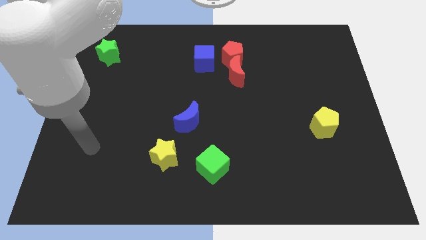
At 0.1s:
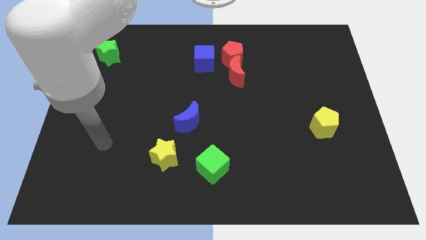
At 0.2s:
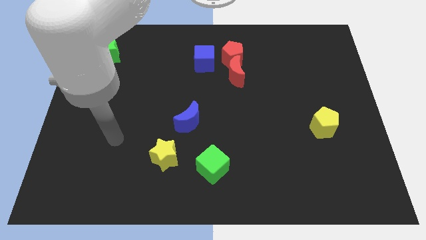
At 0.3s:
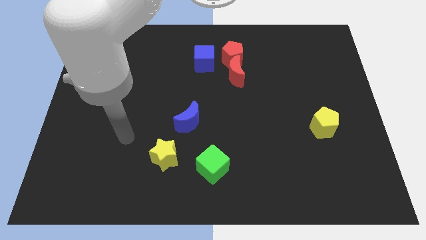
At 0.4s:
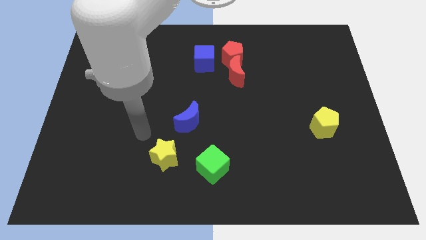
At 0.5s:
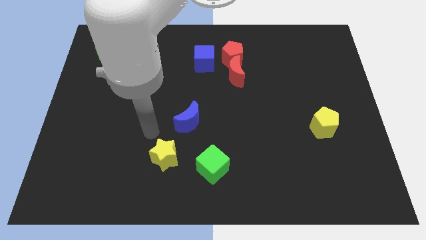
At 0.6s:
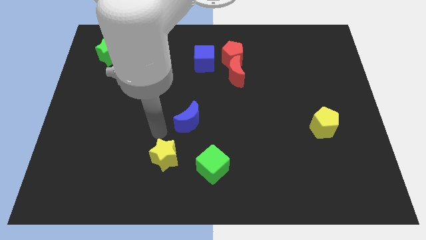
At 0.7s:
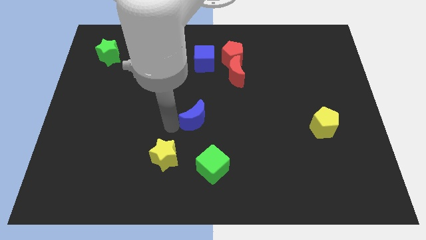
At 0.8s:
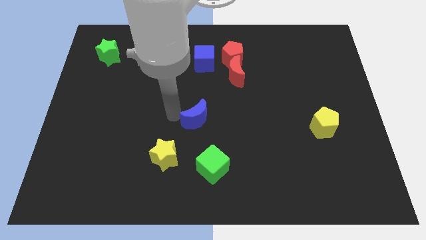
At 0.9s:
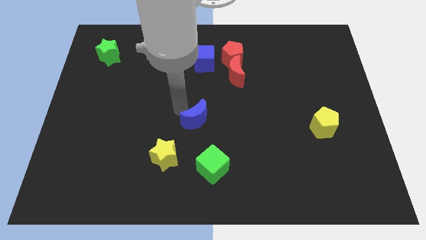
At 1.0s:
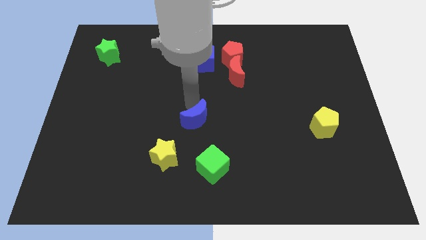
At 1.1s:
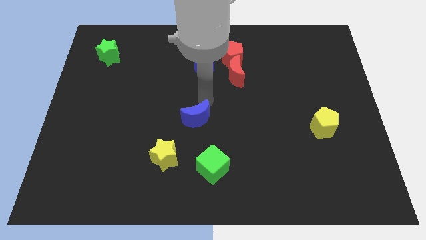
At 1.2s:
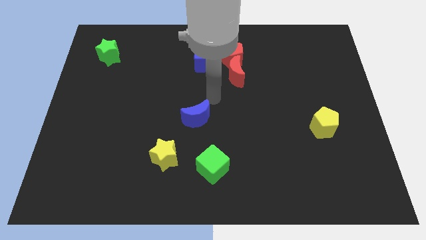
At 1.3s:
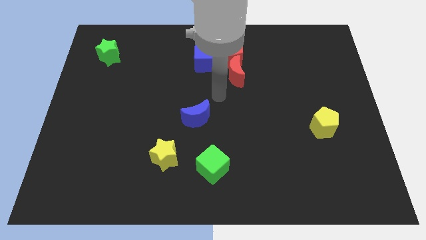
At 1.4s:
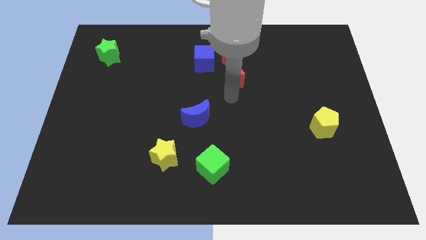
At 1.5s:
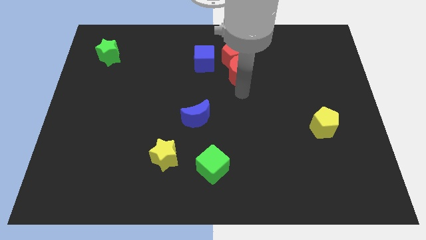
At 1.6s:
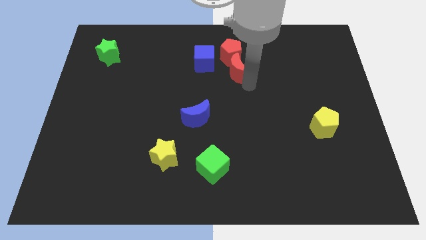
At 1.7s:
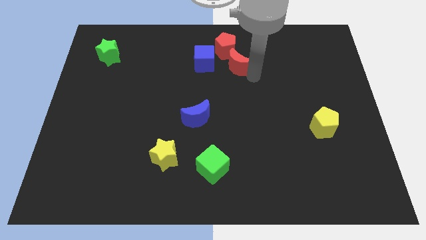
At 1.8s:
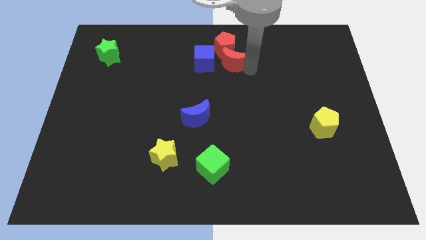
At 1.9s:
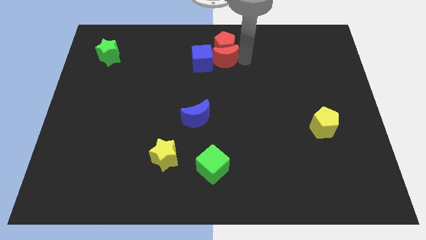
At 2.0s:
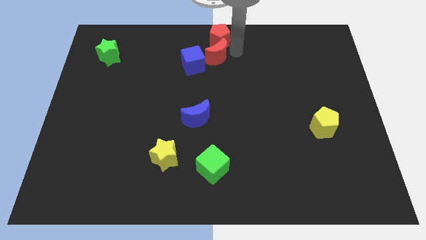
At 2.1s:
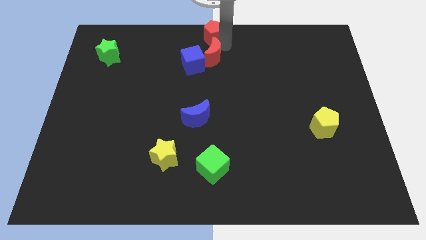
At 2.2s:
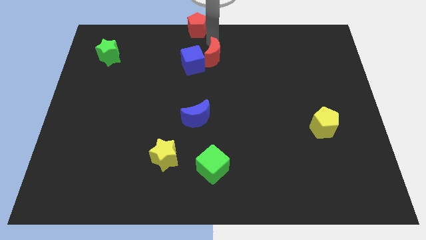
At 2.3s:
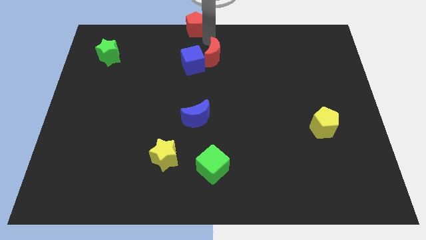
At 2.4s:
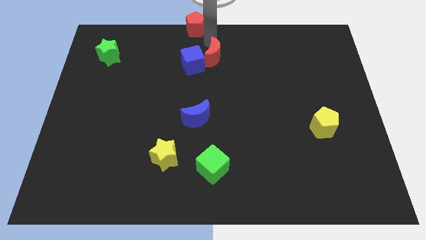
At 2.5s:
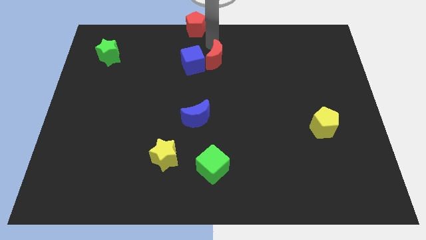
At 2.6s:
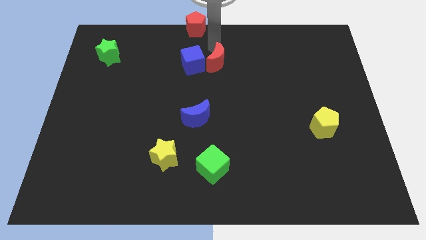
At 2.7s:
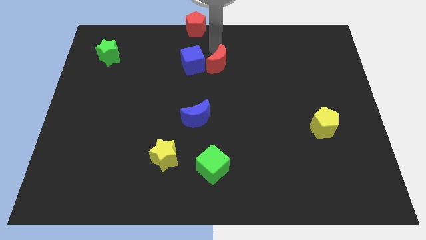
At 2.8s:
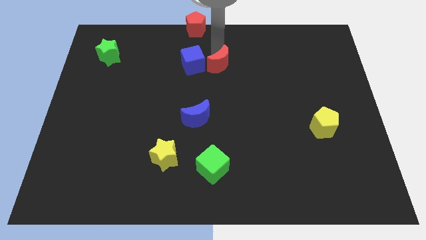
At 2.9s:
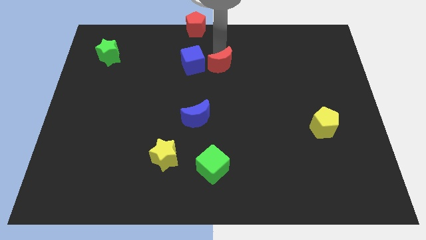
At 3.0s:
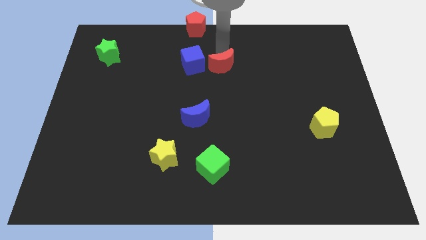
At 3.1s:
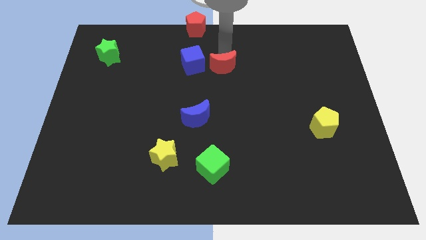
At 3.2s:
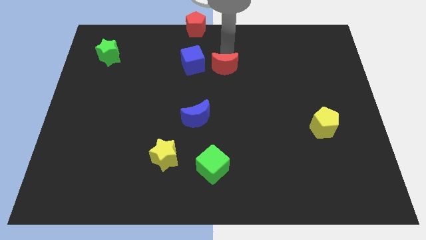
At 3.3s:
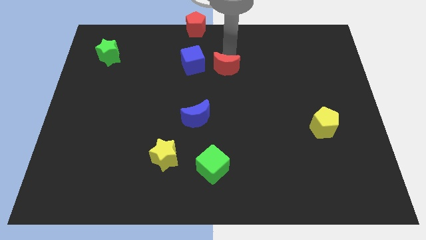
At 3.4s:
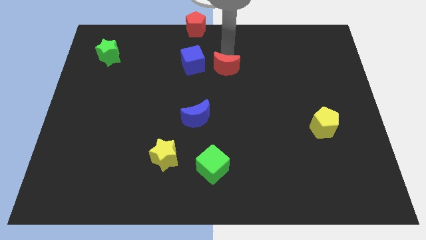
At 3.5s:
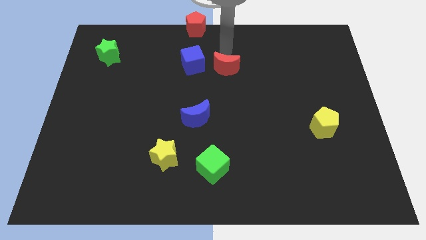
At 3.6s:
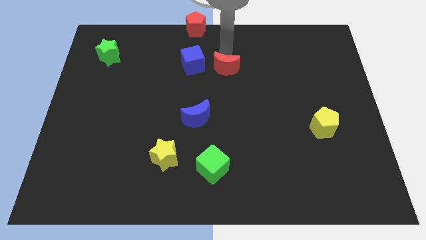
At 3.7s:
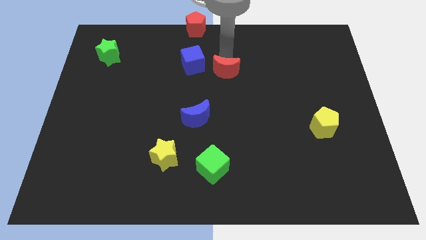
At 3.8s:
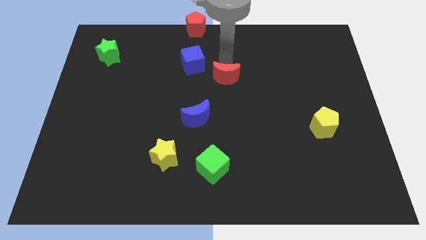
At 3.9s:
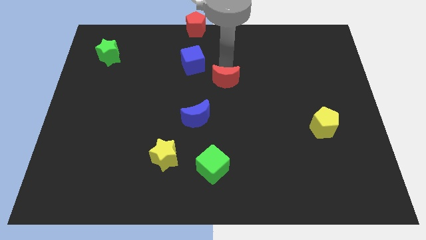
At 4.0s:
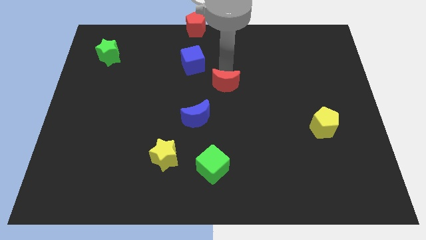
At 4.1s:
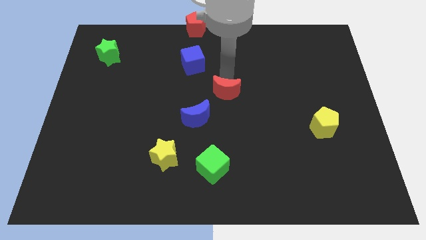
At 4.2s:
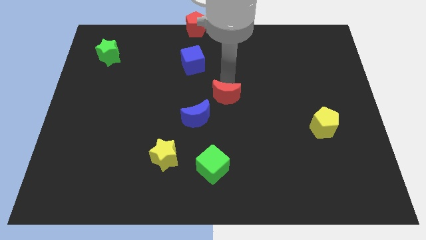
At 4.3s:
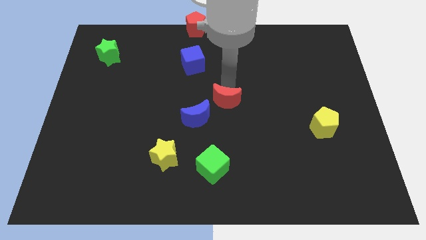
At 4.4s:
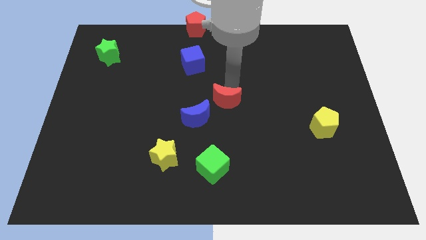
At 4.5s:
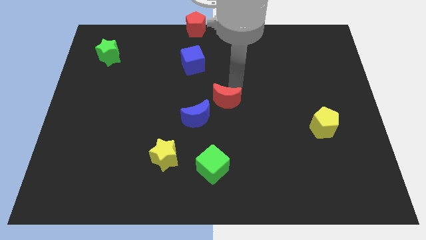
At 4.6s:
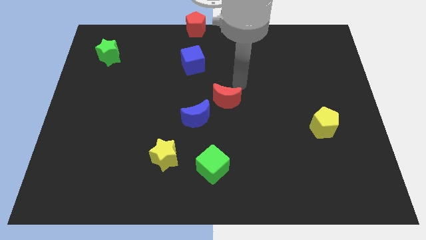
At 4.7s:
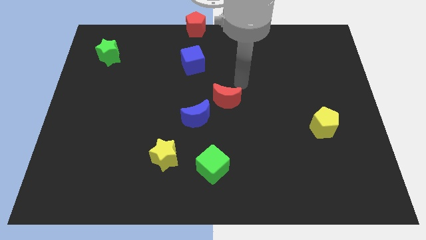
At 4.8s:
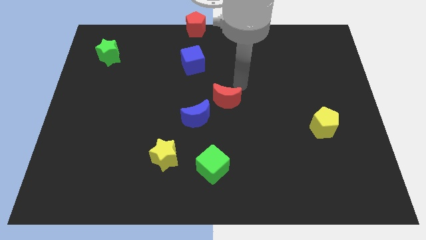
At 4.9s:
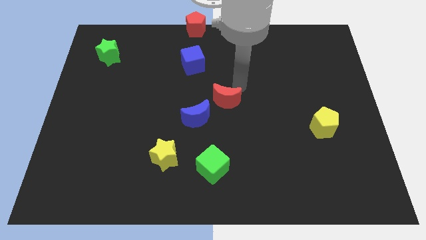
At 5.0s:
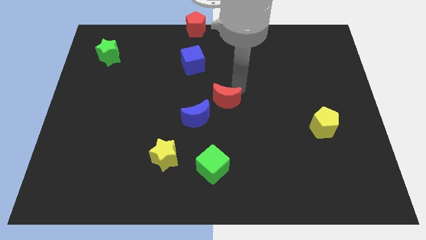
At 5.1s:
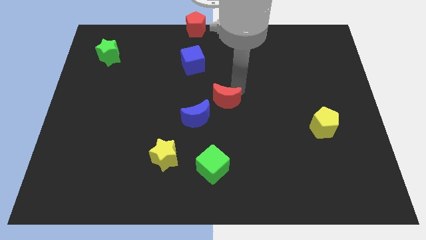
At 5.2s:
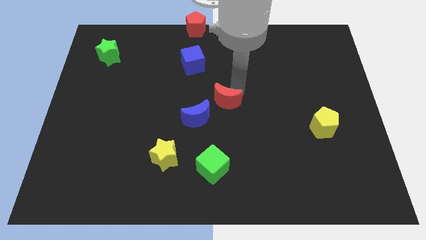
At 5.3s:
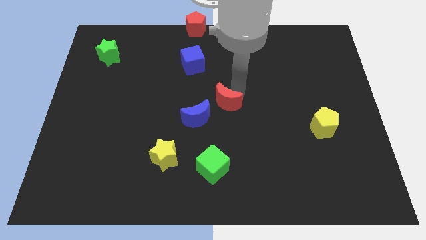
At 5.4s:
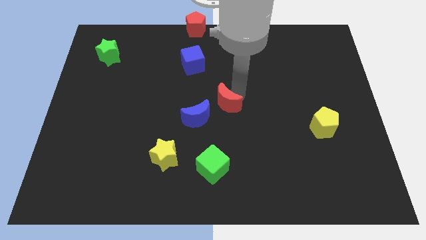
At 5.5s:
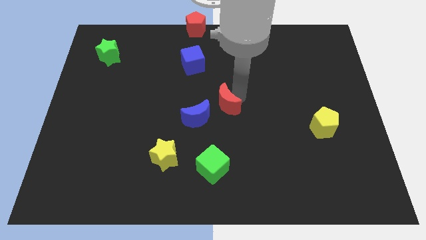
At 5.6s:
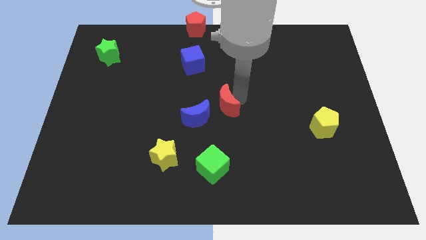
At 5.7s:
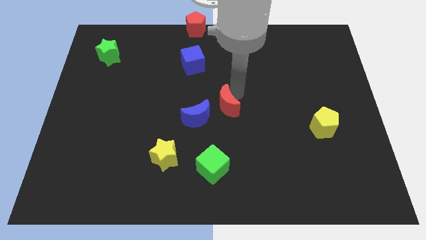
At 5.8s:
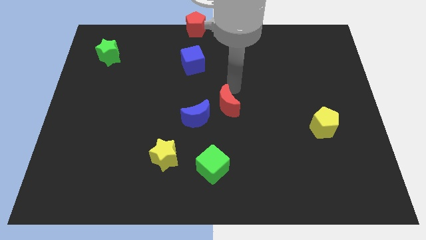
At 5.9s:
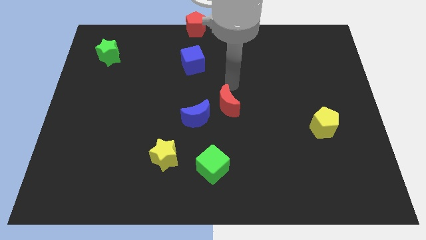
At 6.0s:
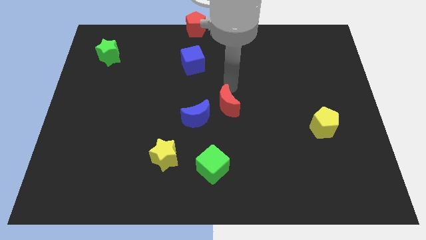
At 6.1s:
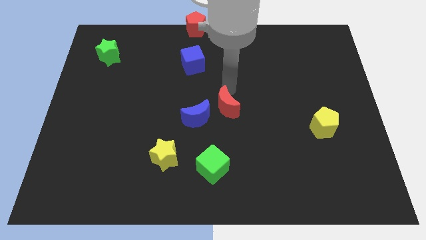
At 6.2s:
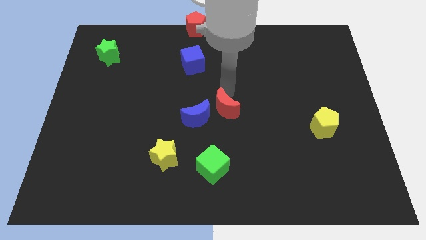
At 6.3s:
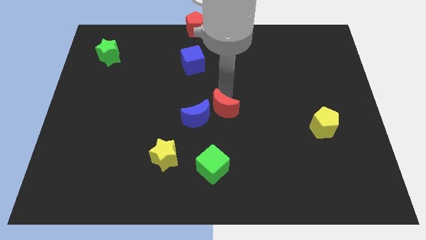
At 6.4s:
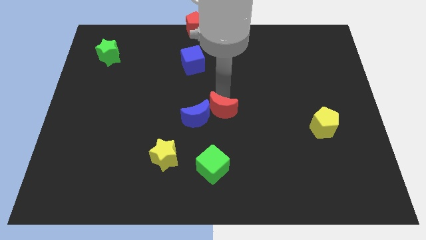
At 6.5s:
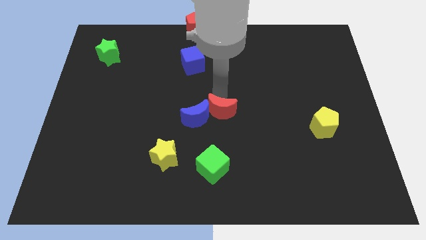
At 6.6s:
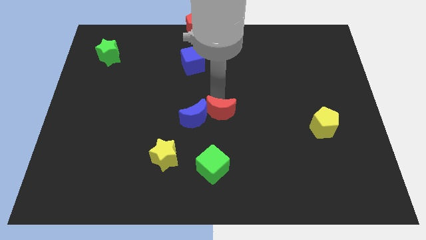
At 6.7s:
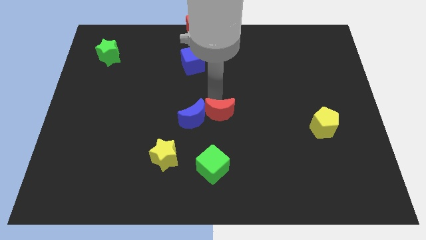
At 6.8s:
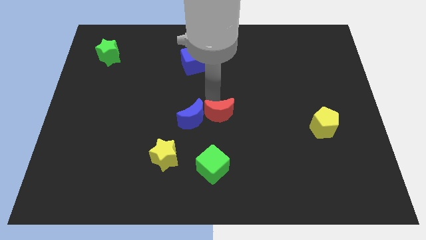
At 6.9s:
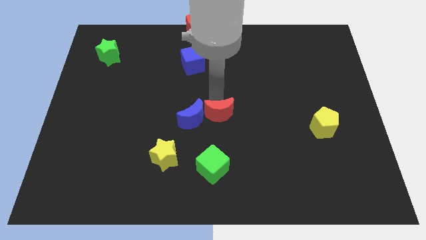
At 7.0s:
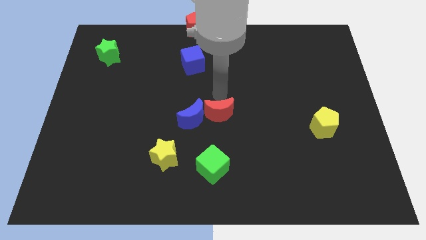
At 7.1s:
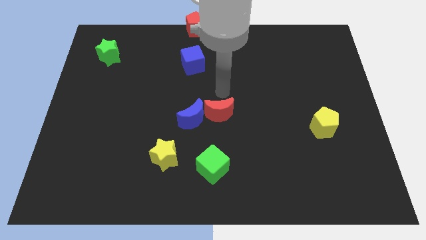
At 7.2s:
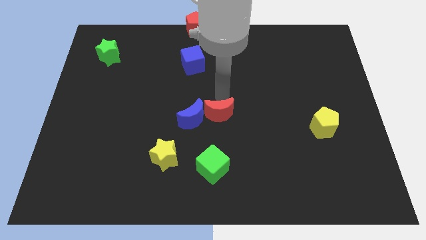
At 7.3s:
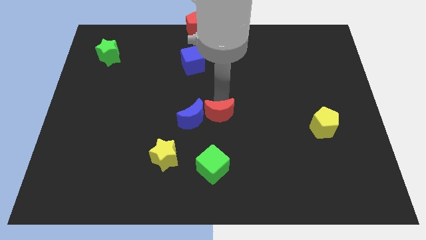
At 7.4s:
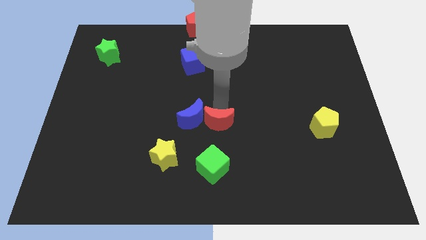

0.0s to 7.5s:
push the red moon to the bottom right of the blue moon
